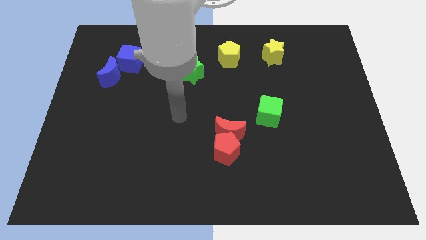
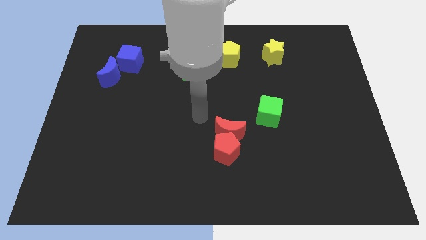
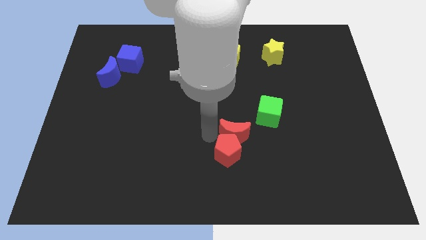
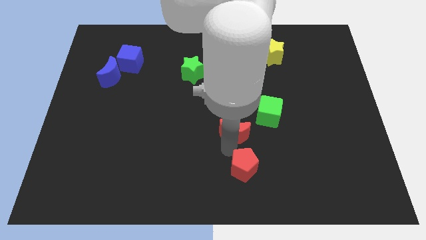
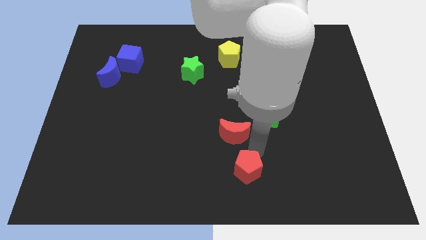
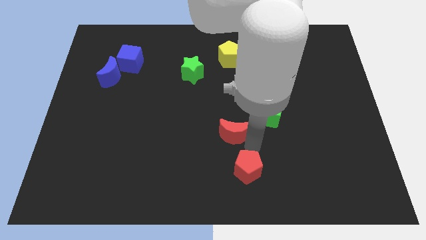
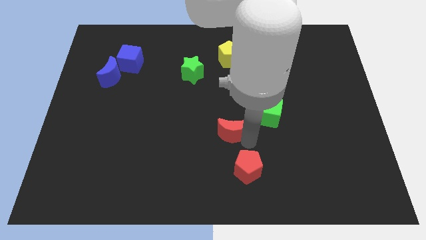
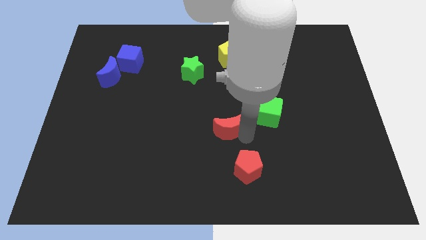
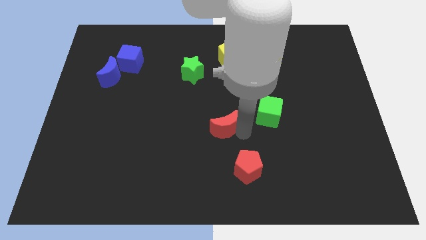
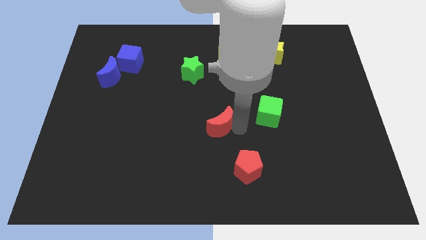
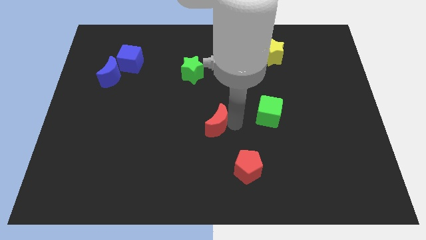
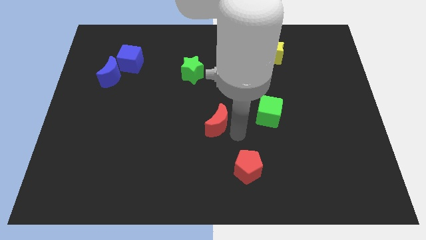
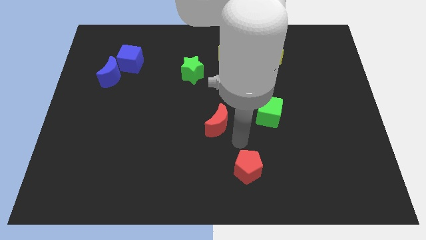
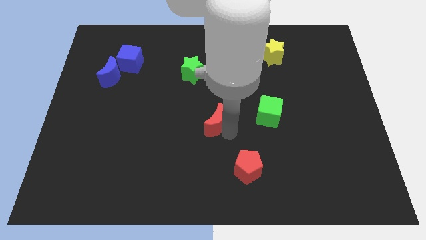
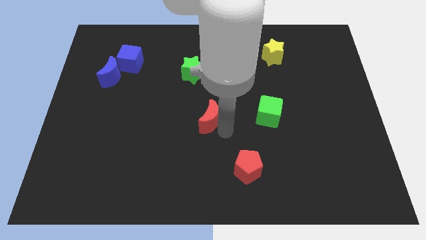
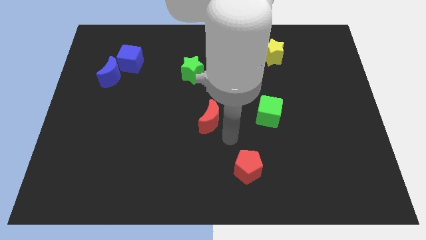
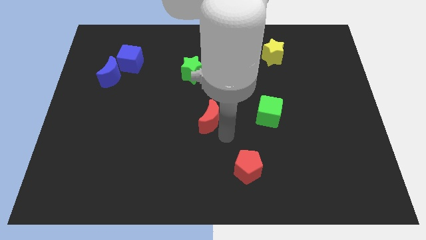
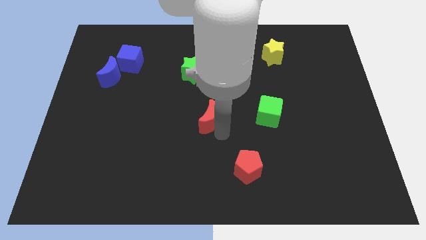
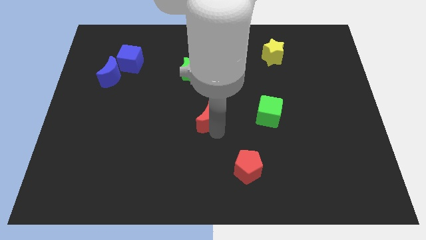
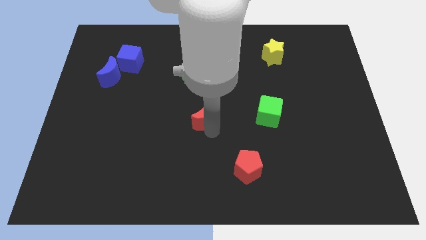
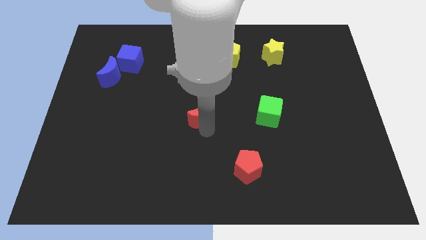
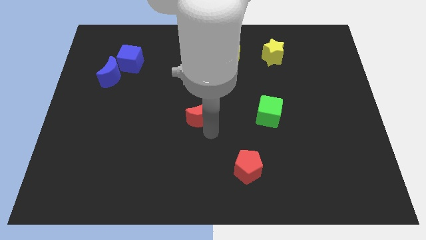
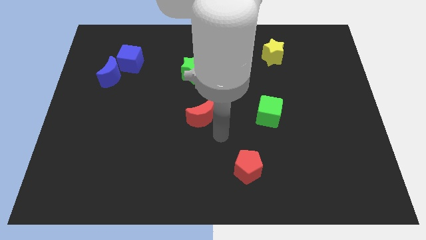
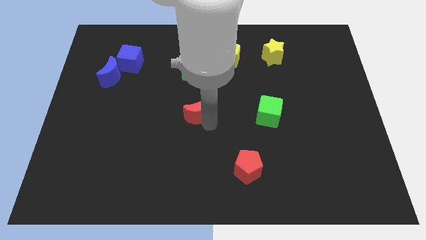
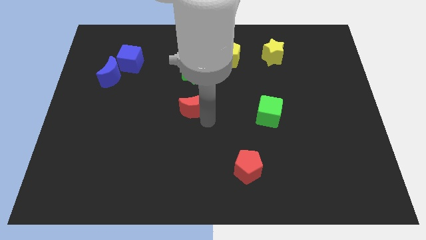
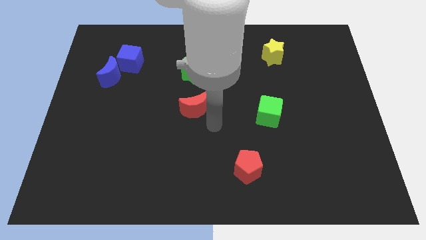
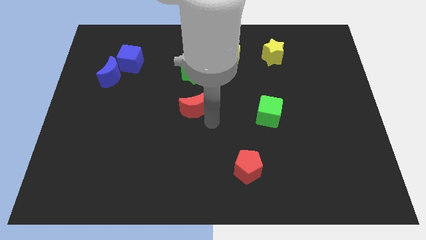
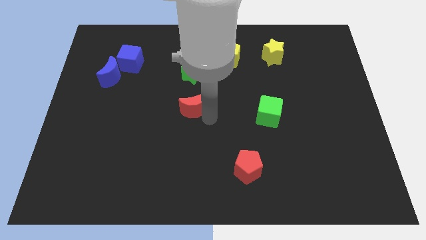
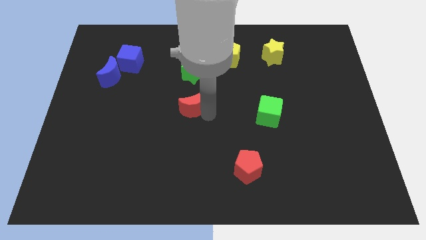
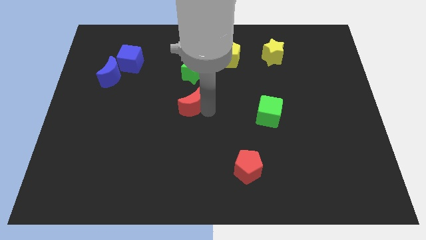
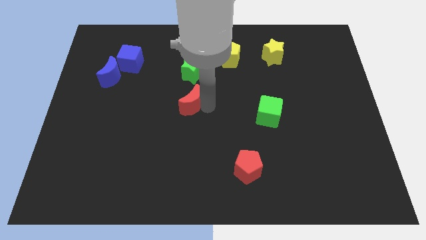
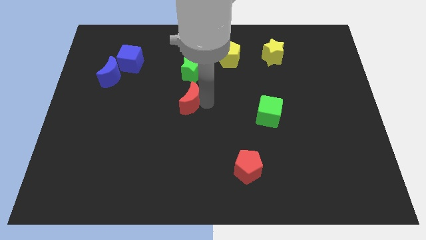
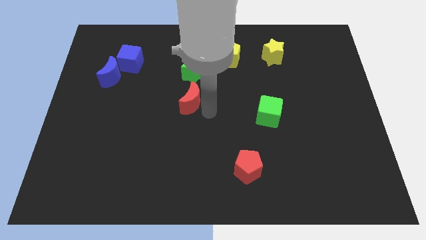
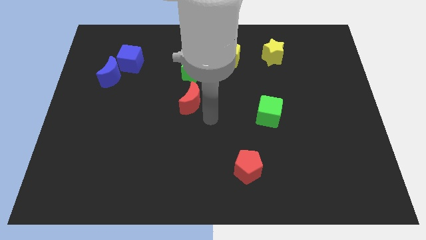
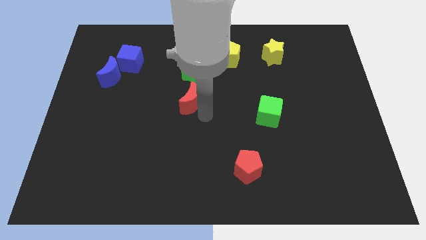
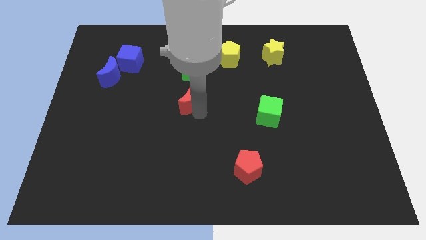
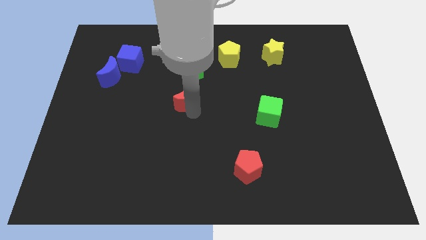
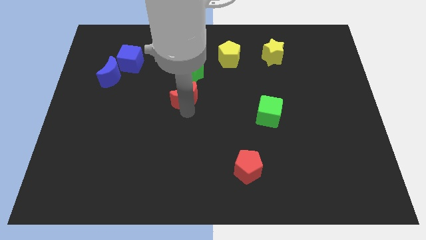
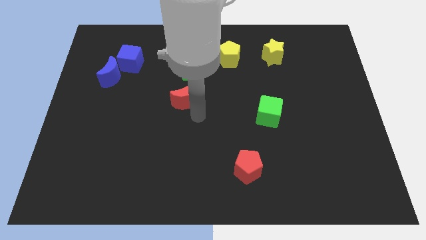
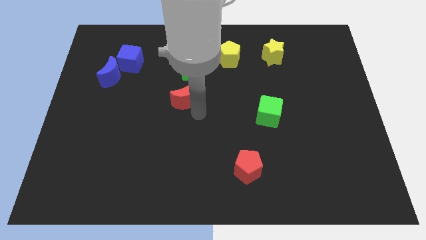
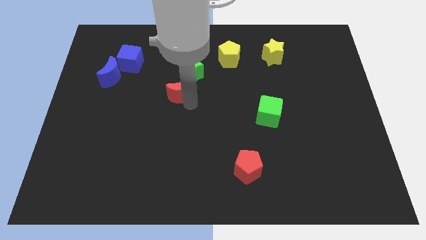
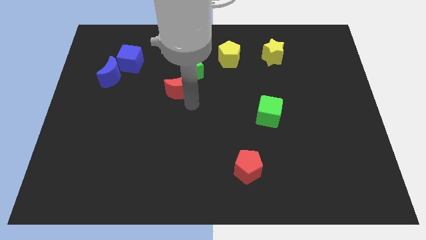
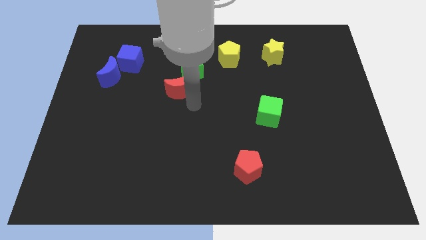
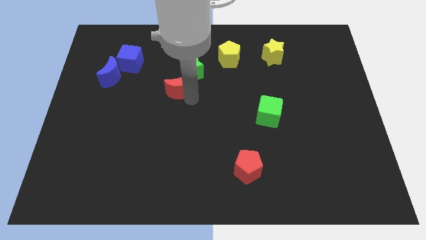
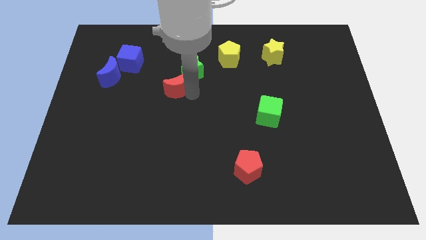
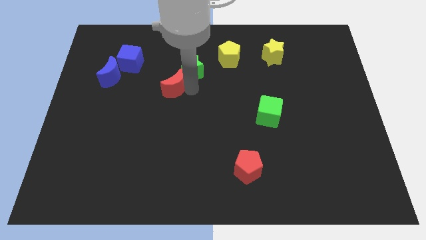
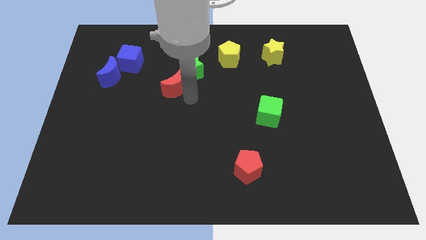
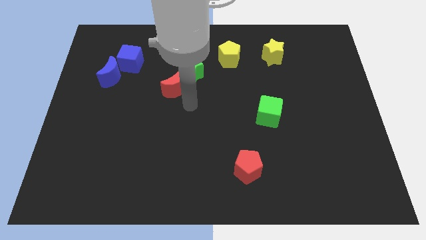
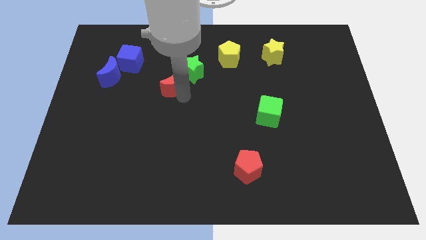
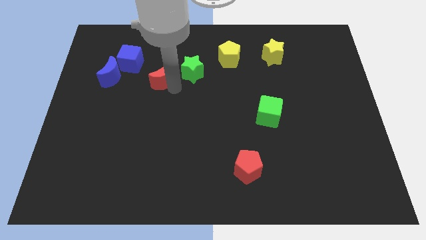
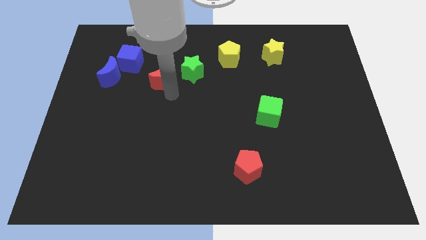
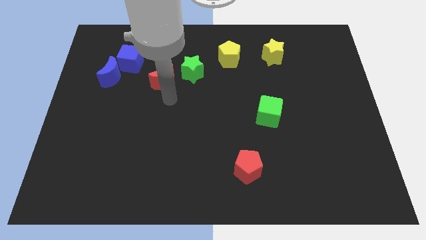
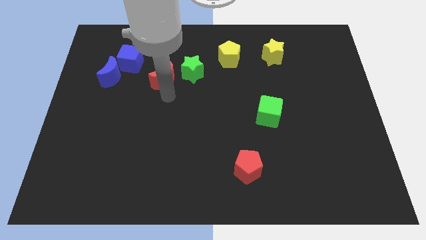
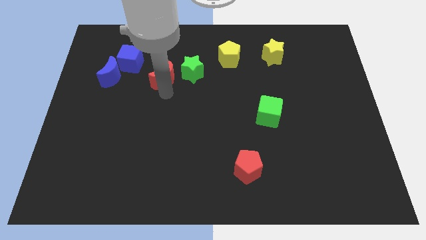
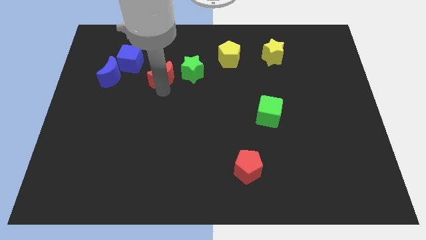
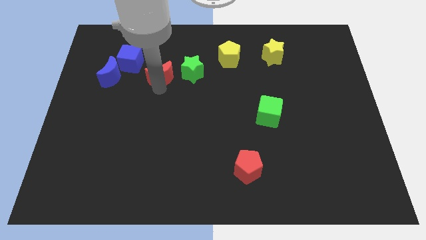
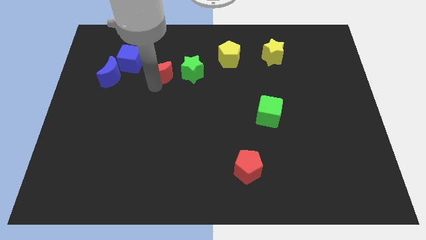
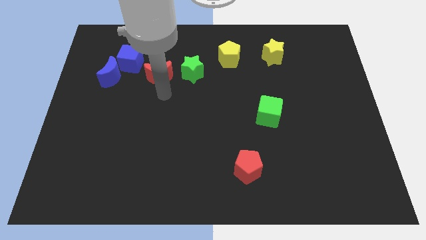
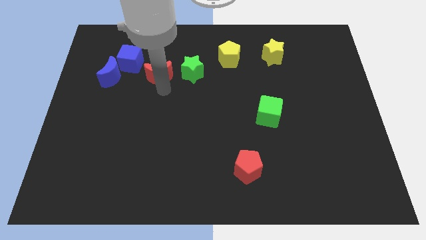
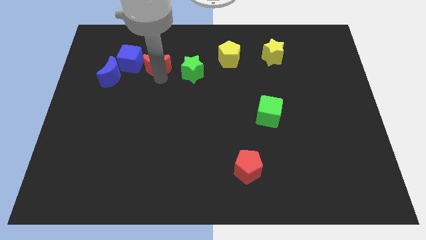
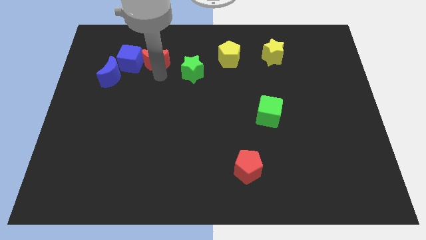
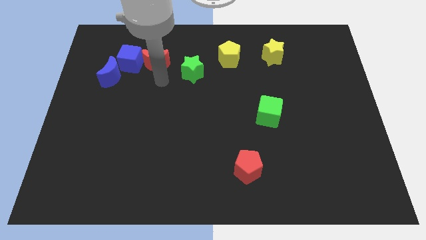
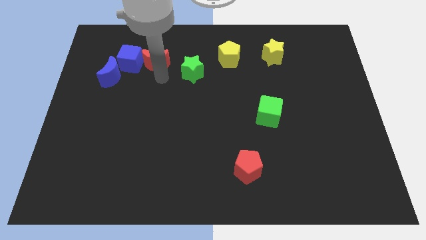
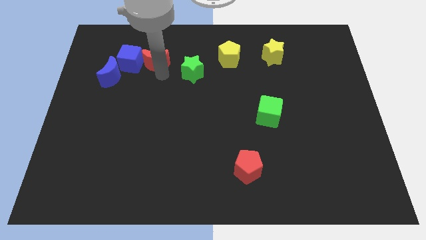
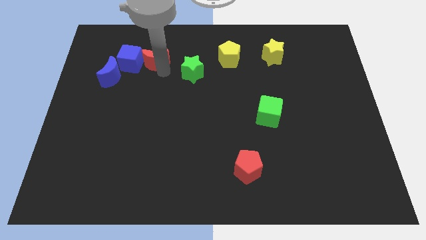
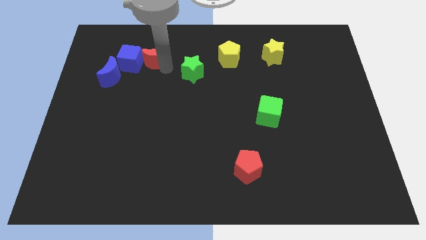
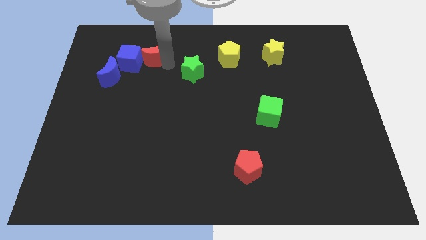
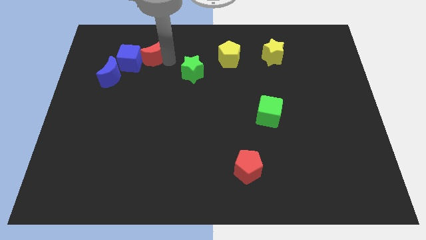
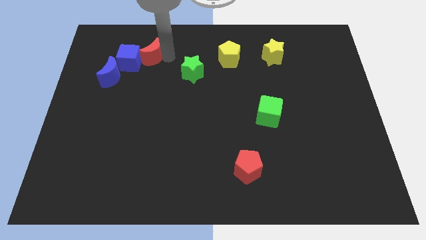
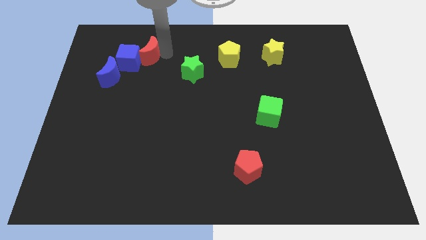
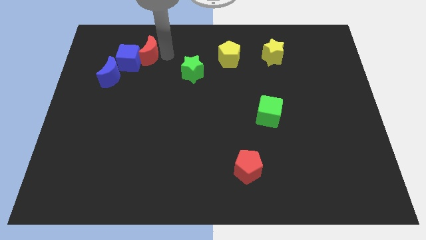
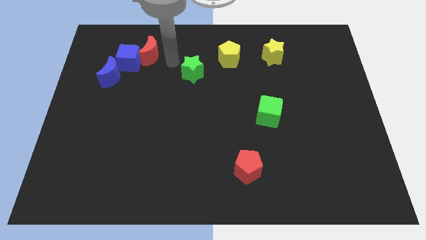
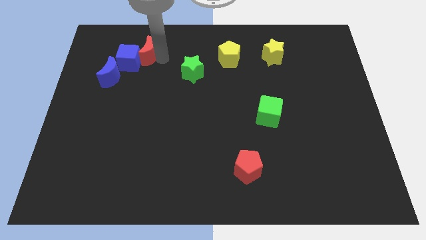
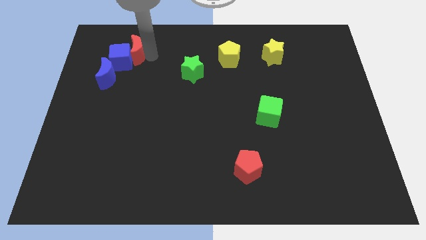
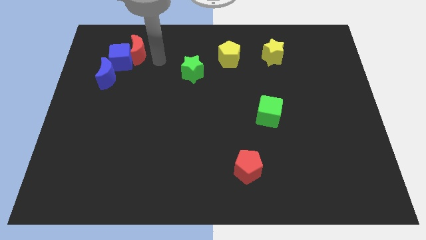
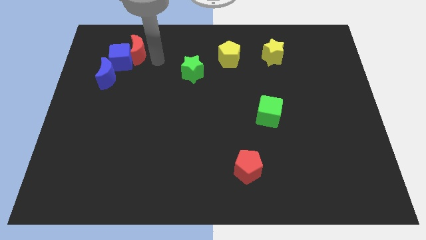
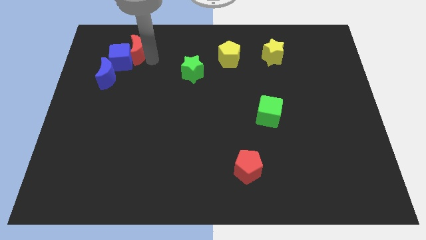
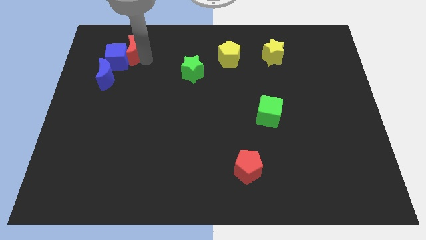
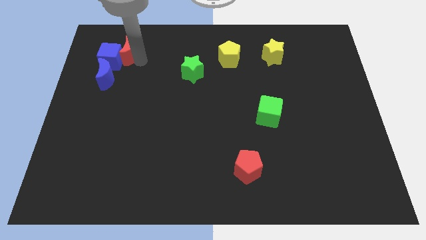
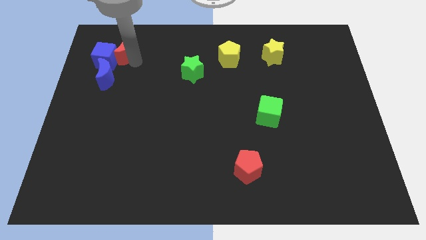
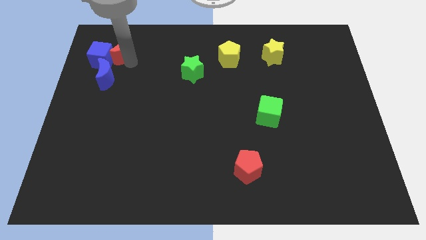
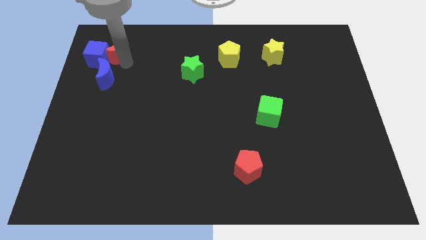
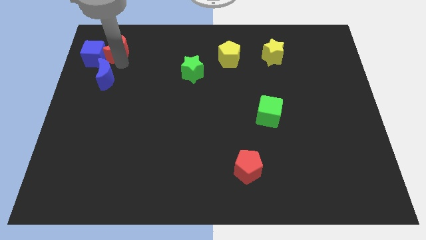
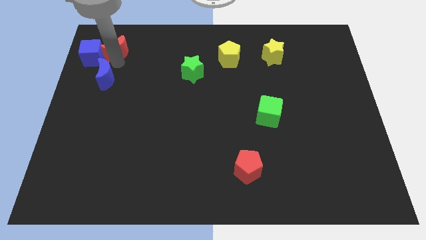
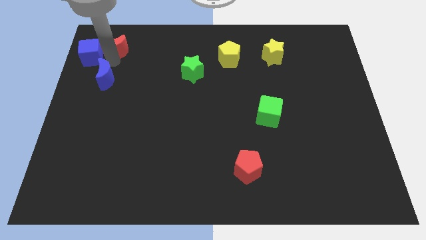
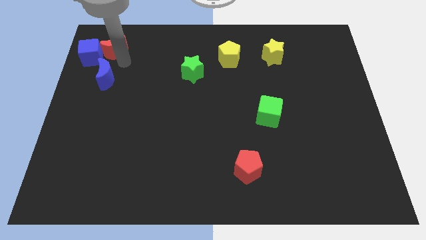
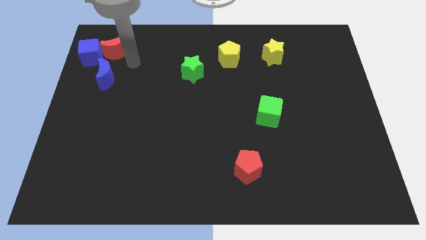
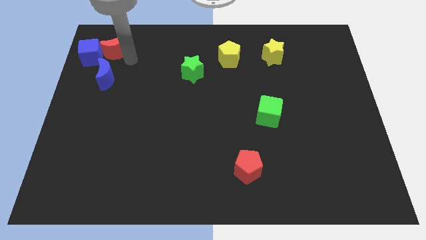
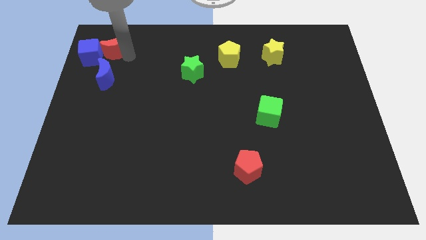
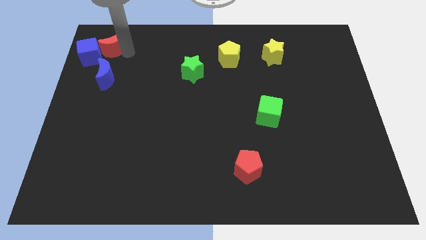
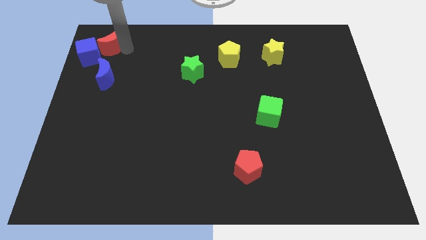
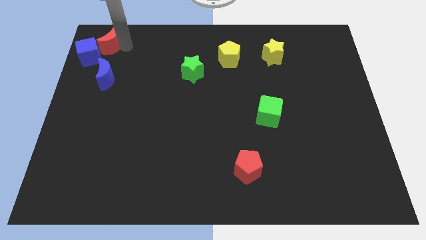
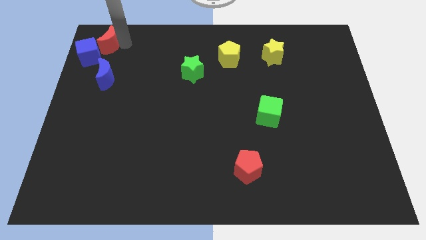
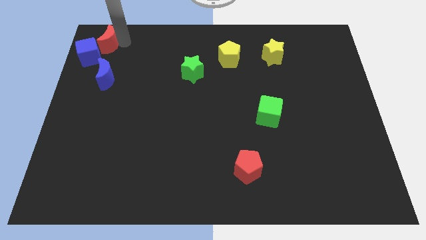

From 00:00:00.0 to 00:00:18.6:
push the red moon to the top left of the board
